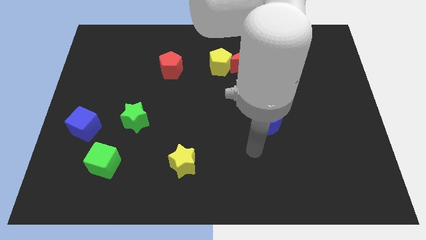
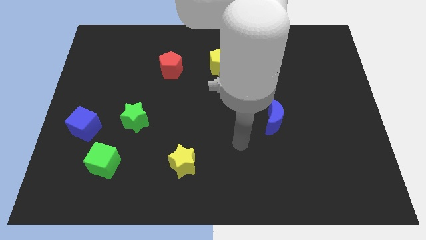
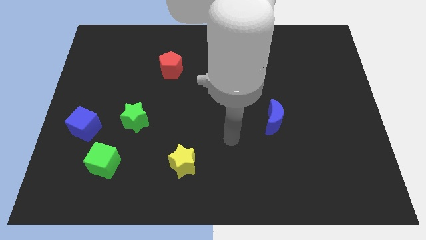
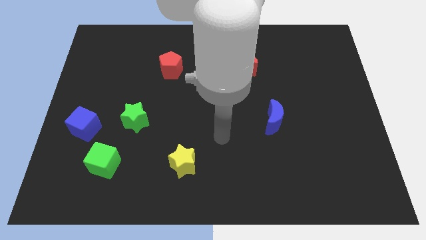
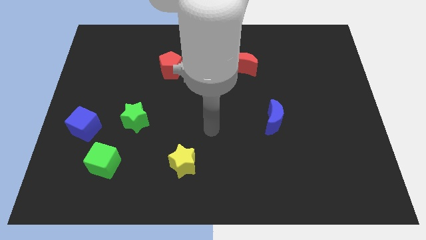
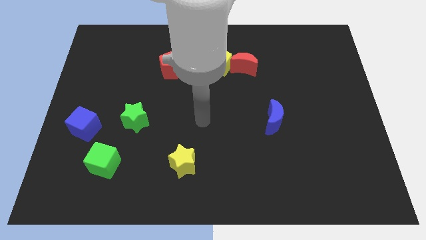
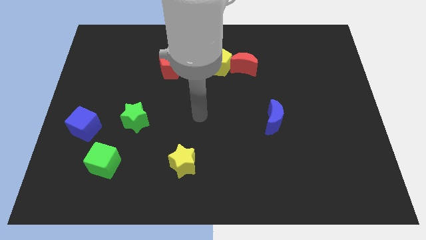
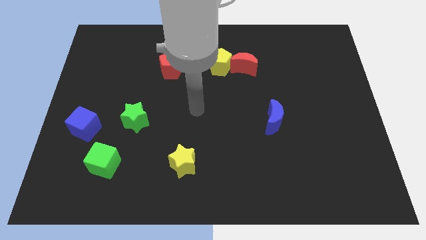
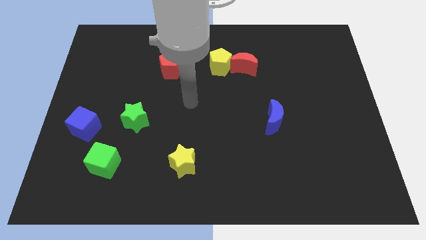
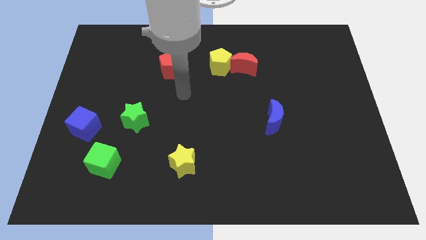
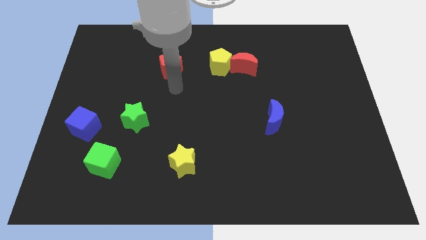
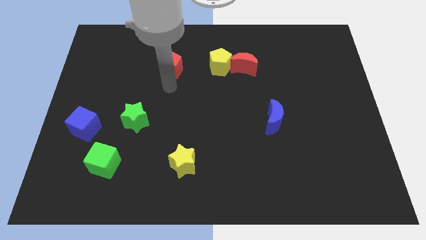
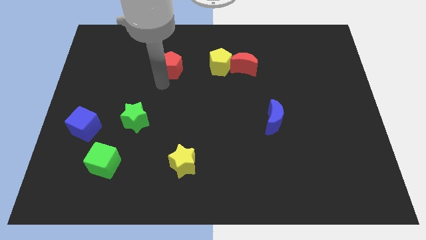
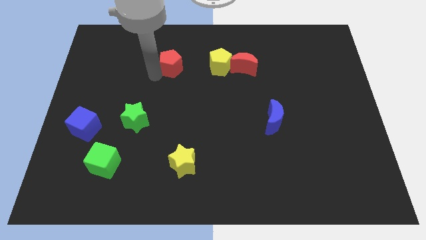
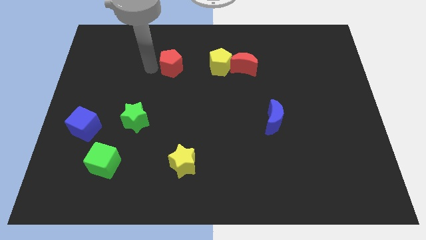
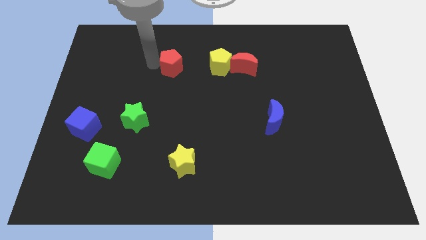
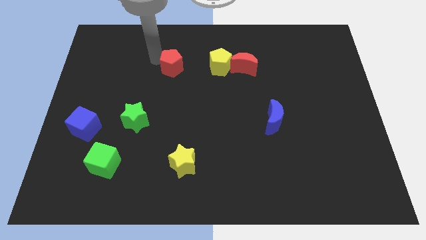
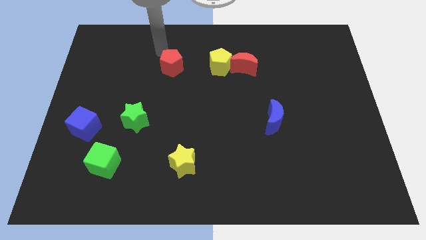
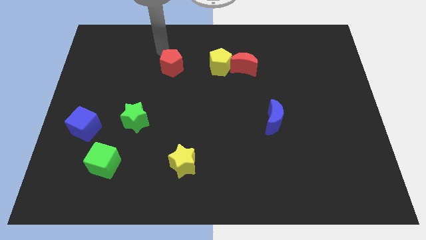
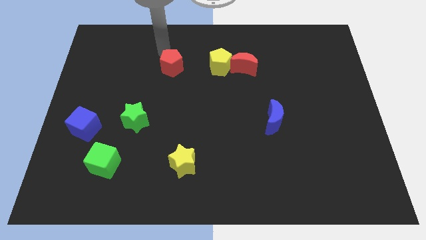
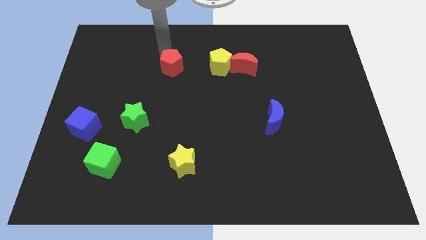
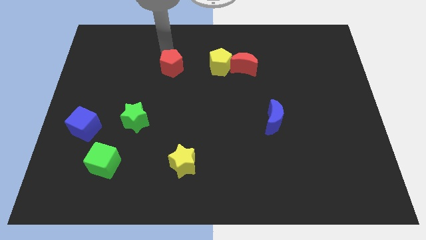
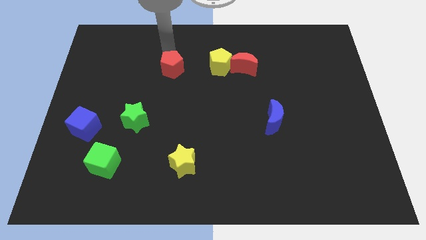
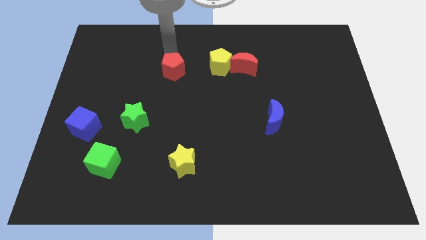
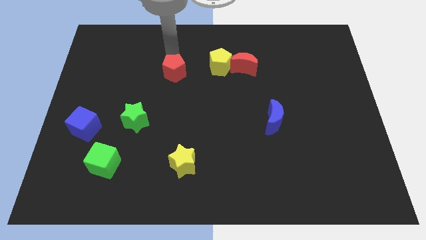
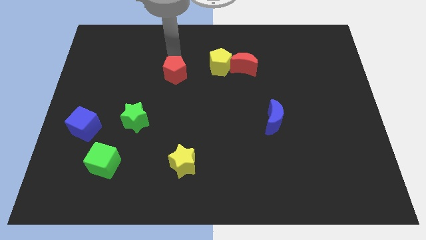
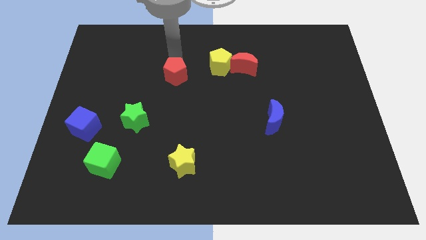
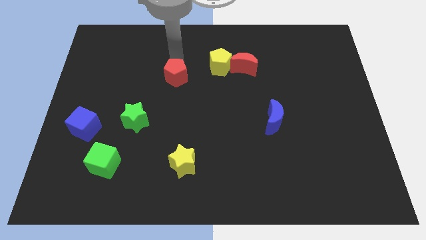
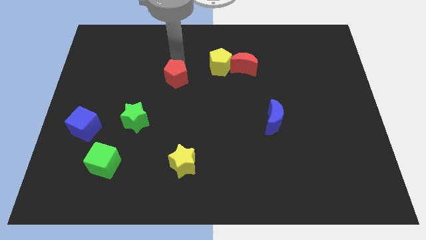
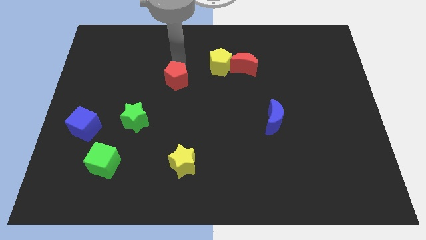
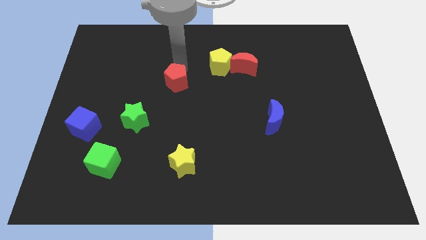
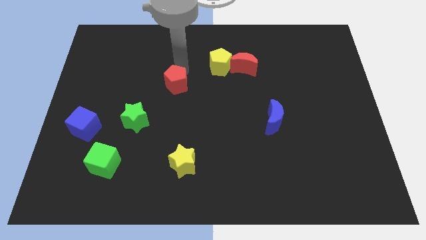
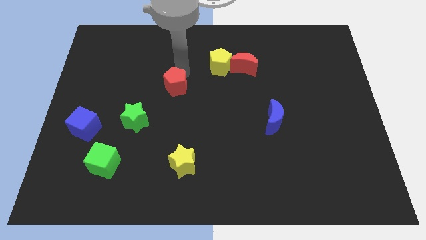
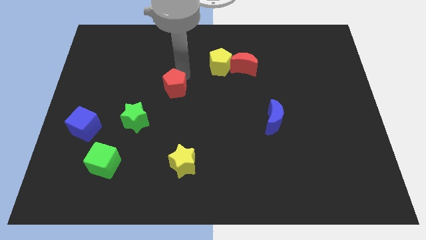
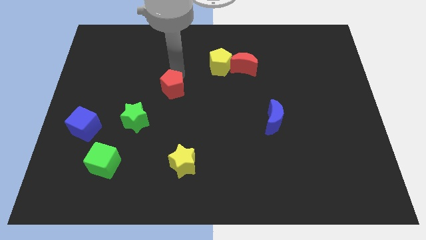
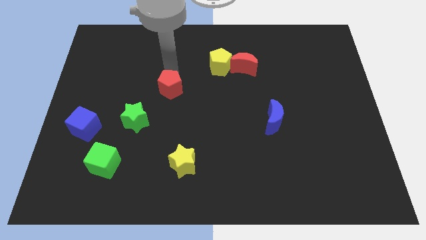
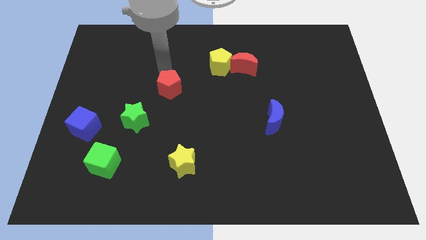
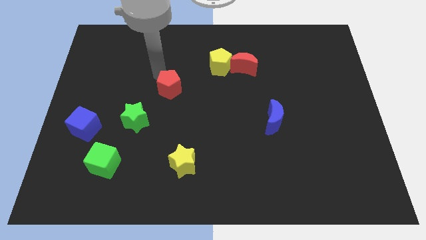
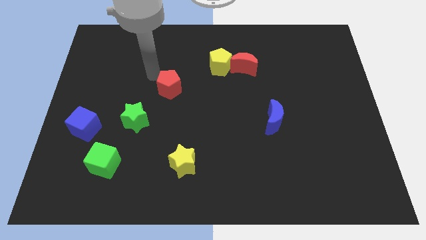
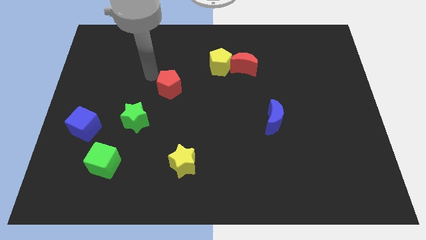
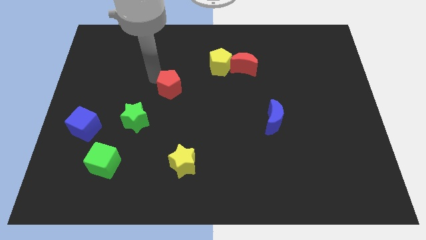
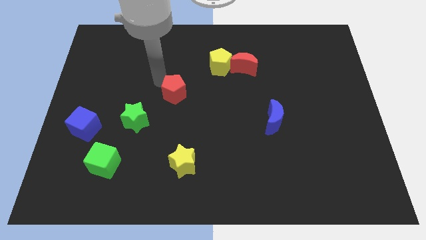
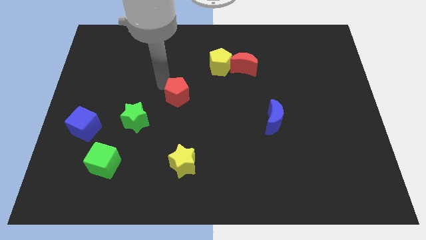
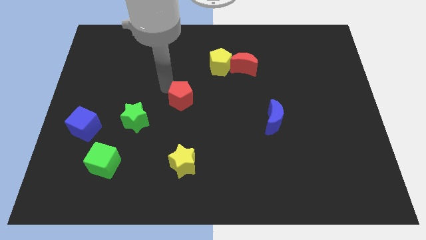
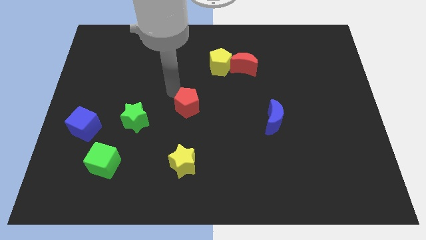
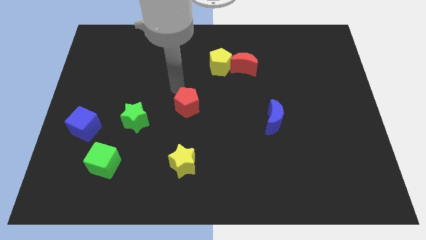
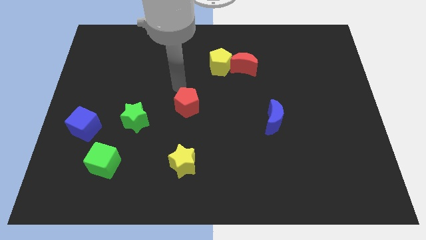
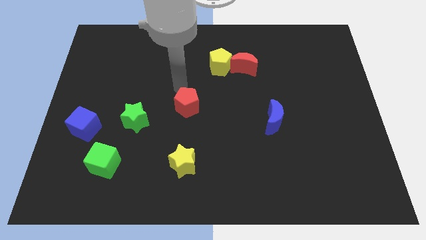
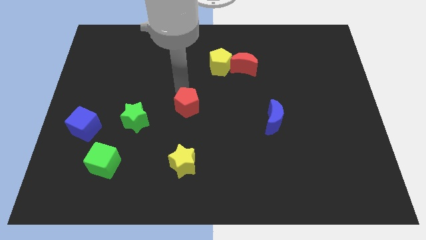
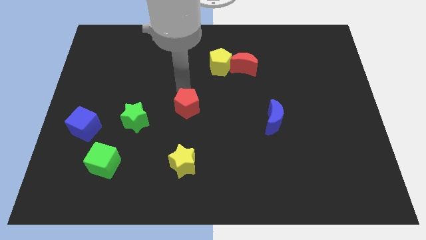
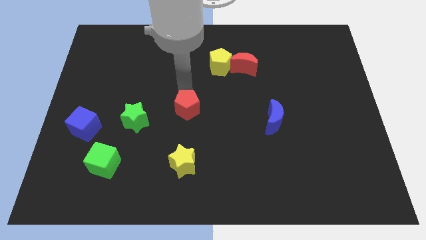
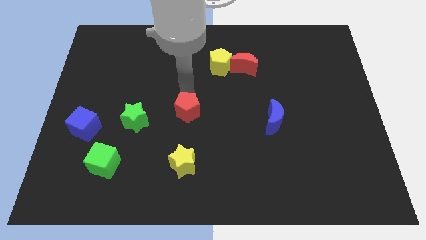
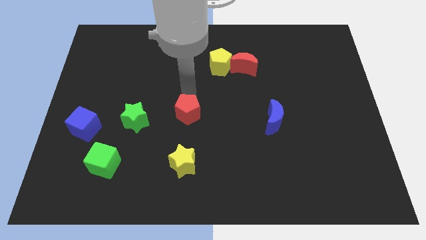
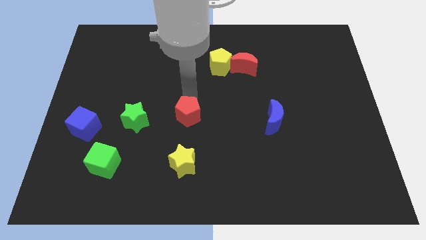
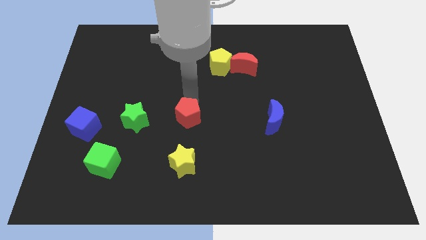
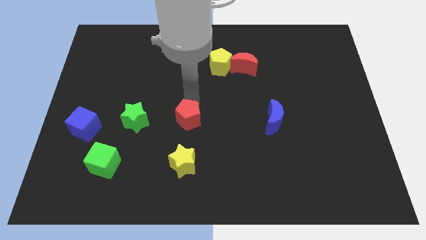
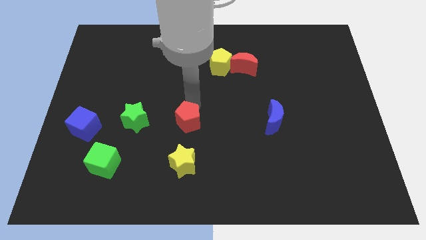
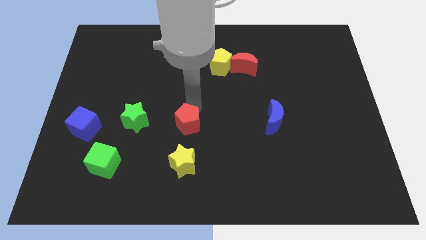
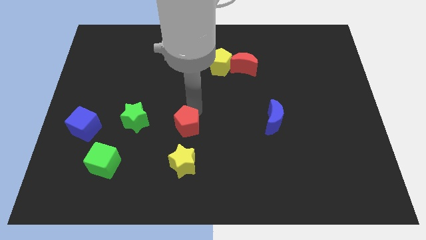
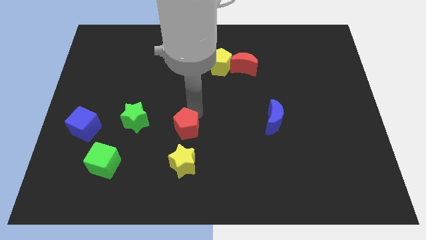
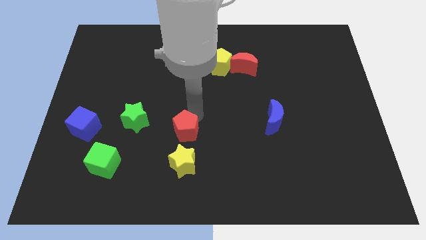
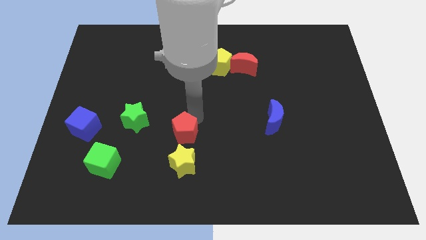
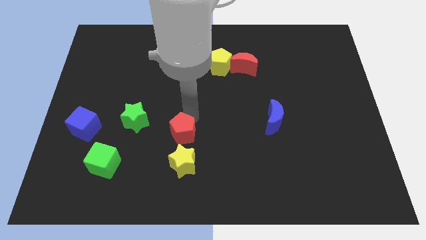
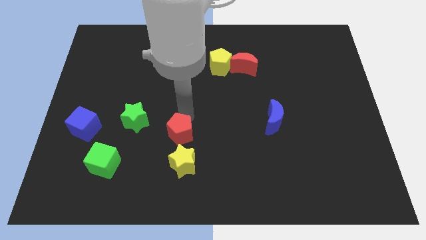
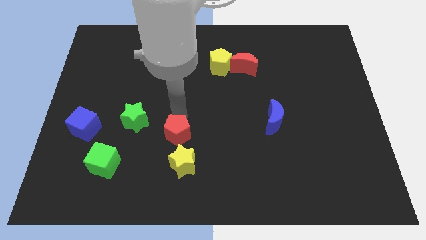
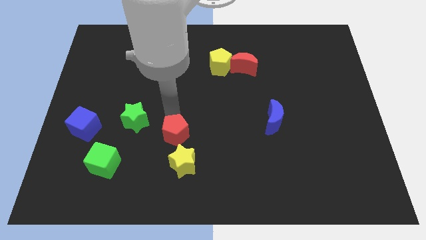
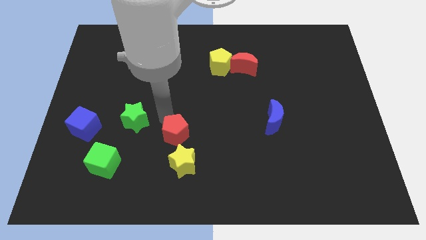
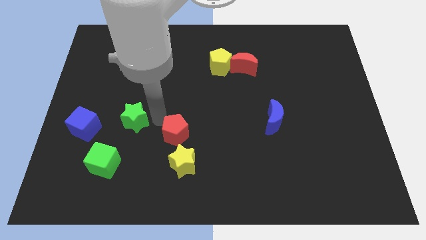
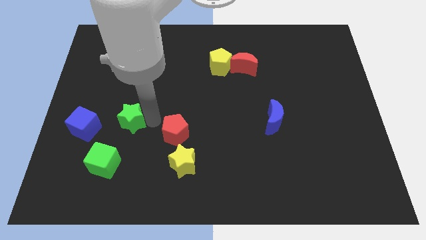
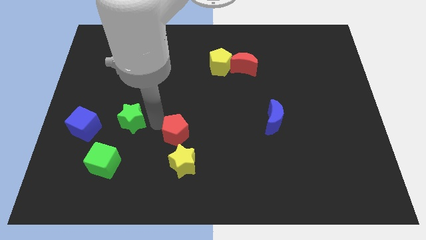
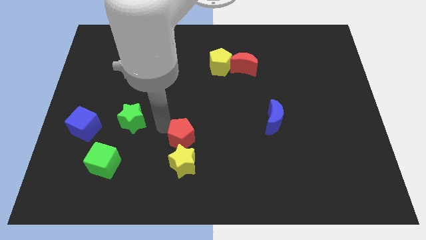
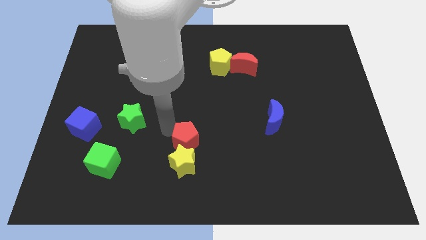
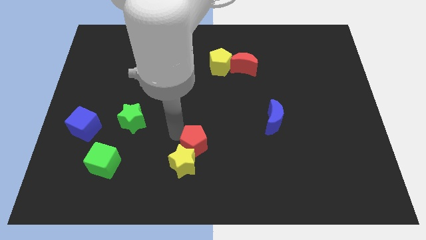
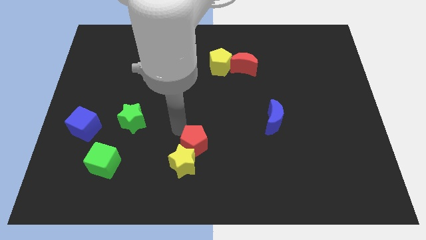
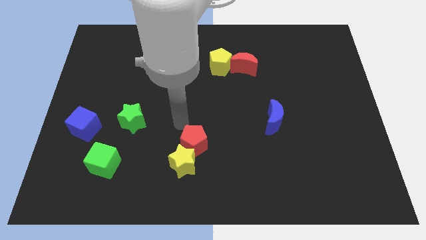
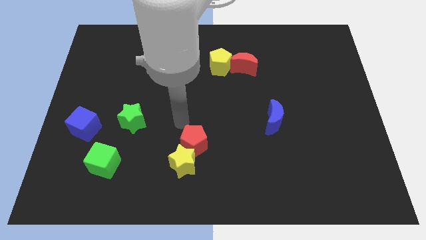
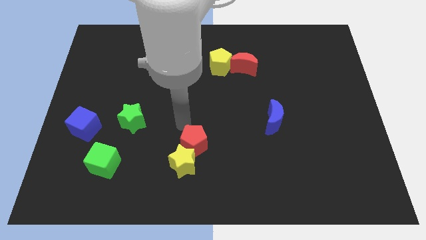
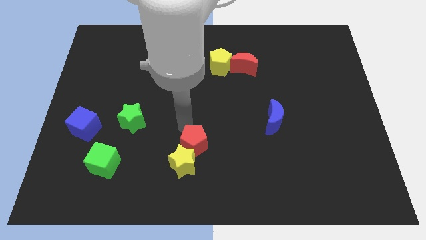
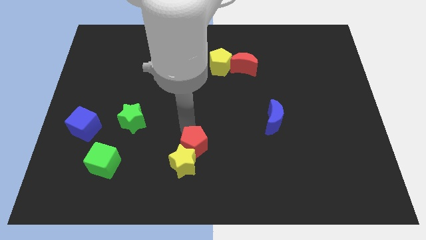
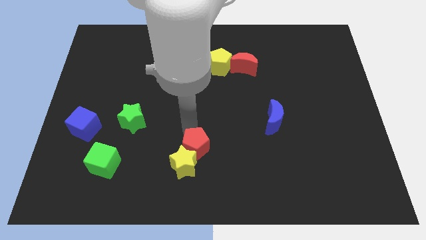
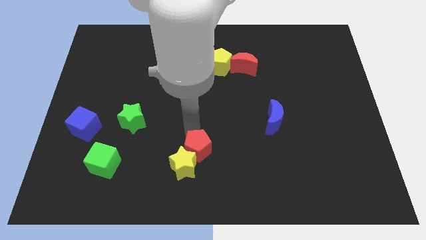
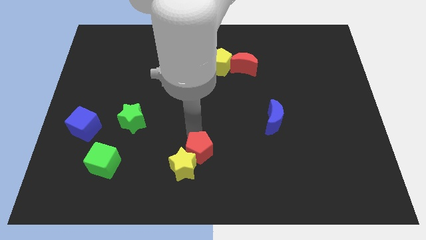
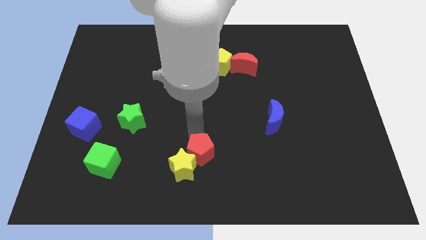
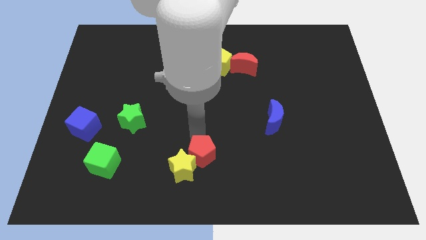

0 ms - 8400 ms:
slide the red pentagon to the bottom side
